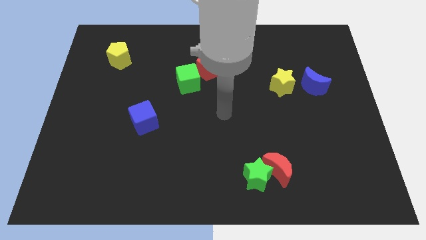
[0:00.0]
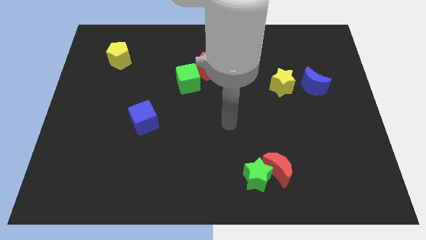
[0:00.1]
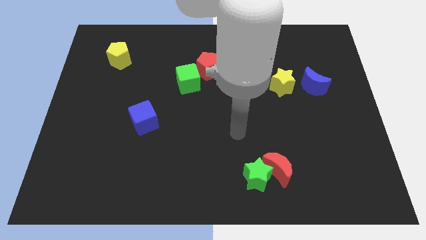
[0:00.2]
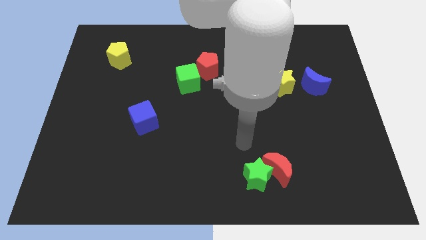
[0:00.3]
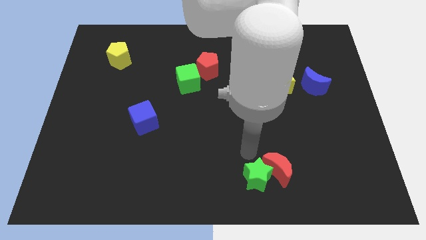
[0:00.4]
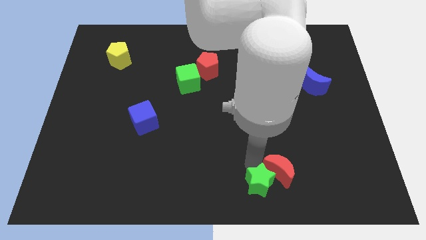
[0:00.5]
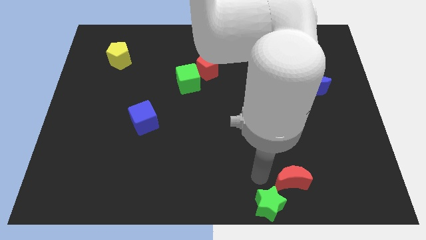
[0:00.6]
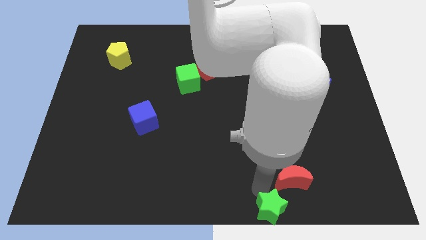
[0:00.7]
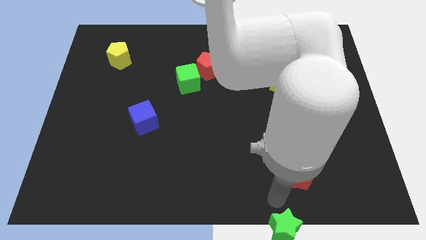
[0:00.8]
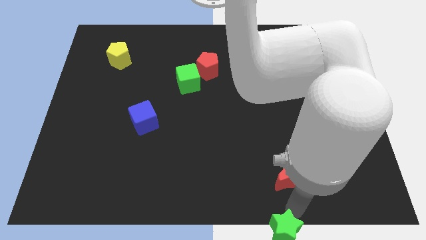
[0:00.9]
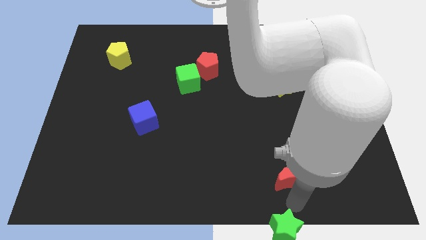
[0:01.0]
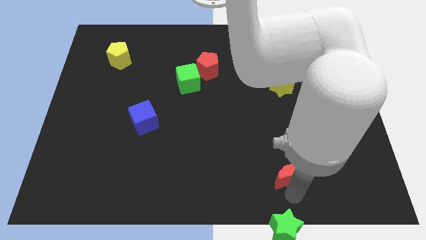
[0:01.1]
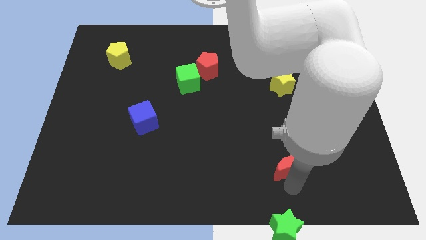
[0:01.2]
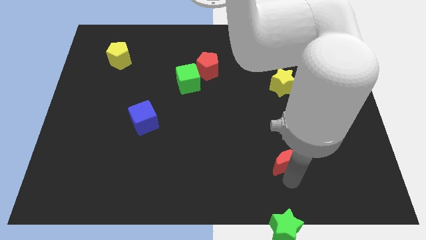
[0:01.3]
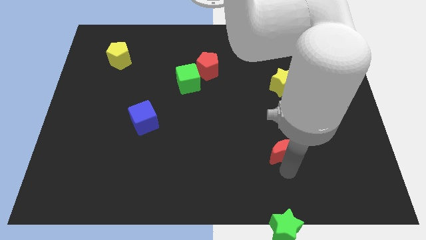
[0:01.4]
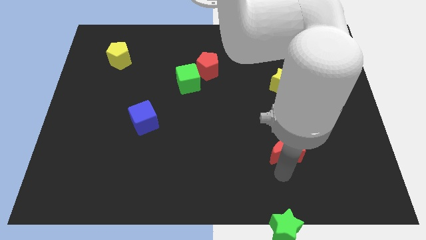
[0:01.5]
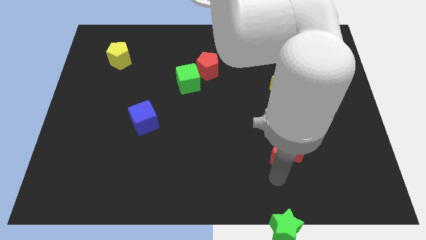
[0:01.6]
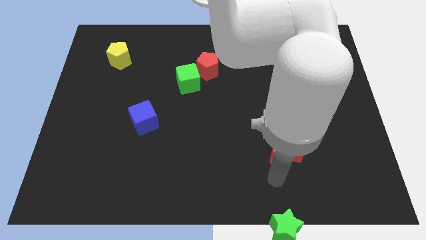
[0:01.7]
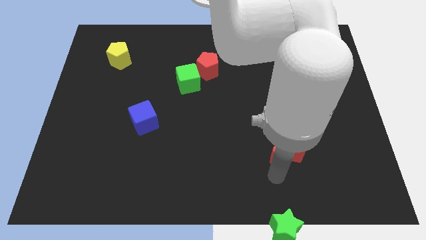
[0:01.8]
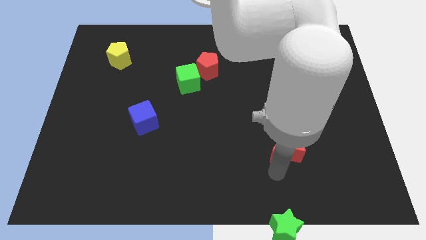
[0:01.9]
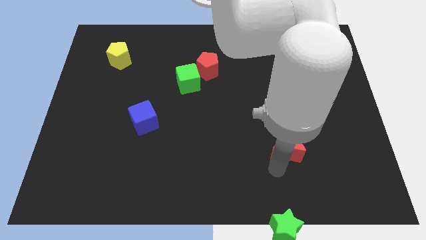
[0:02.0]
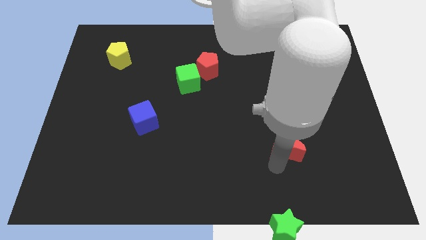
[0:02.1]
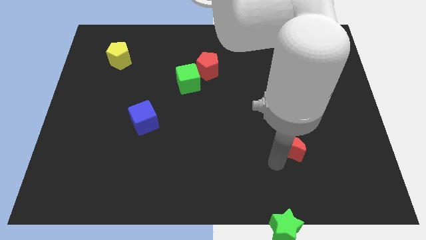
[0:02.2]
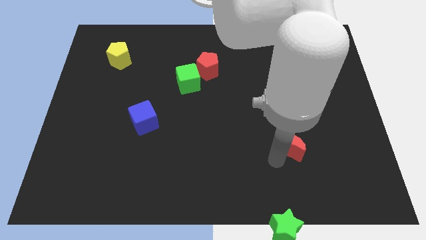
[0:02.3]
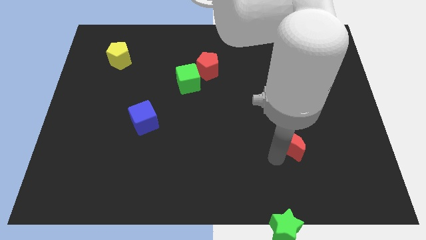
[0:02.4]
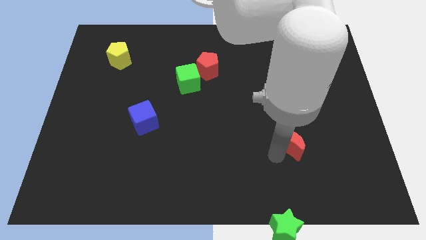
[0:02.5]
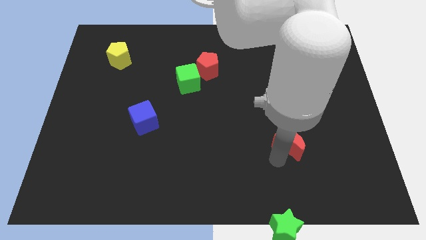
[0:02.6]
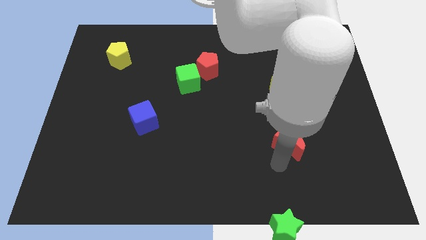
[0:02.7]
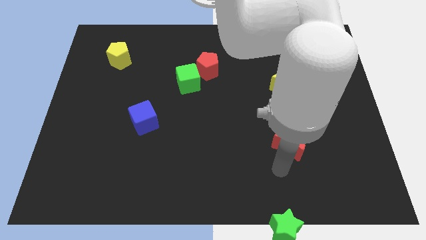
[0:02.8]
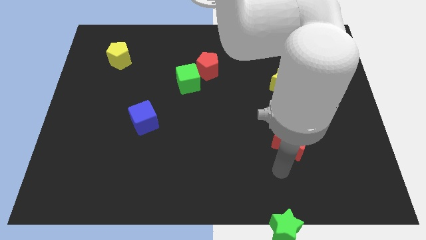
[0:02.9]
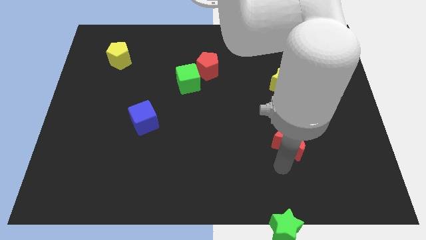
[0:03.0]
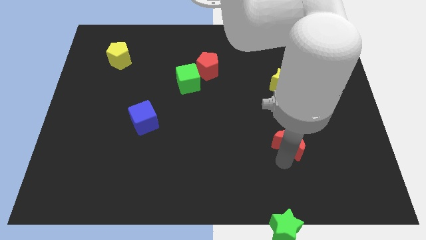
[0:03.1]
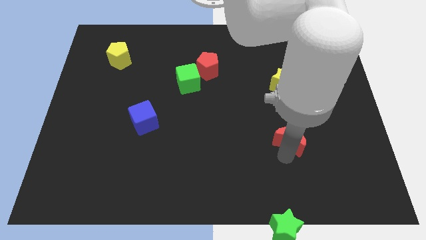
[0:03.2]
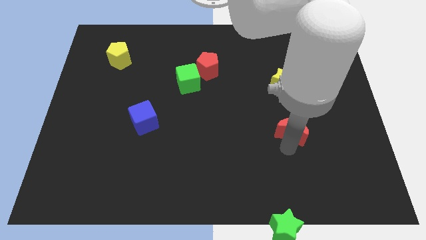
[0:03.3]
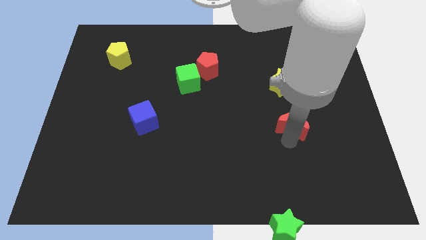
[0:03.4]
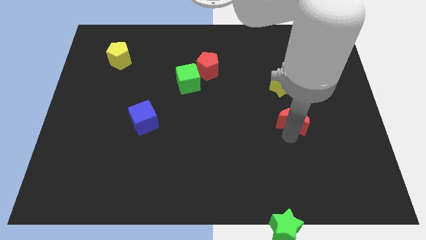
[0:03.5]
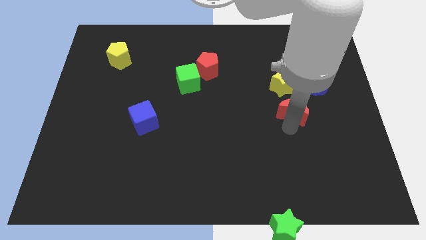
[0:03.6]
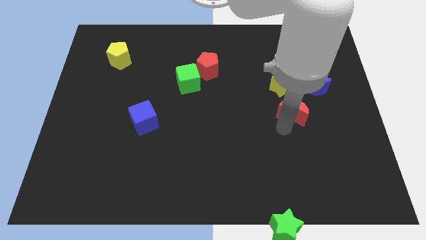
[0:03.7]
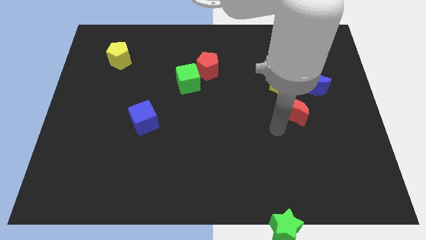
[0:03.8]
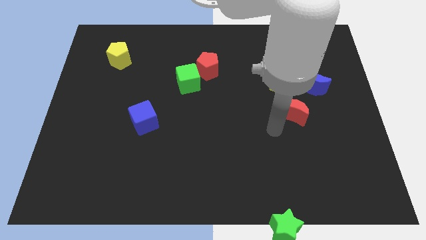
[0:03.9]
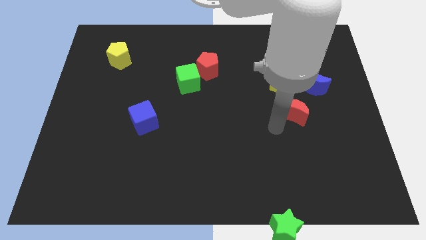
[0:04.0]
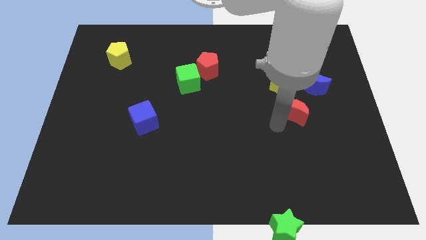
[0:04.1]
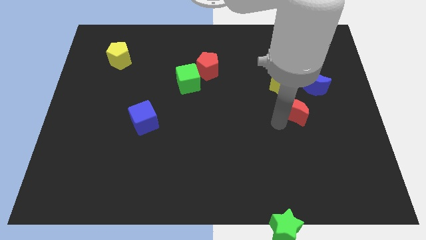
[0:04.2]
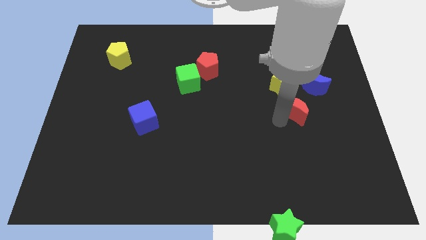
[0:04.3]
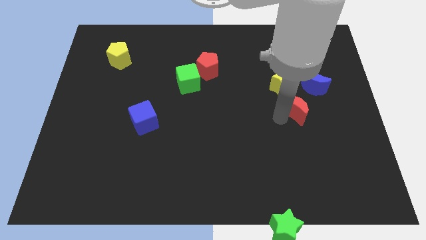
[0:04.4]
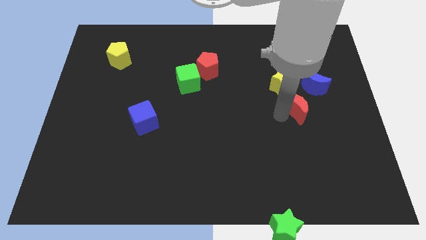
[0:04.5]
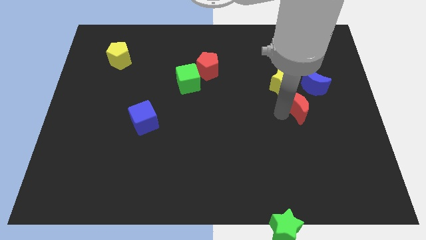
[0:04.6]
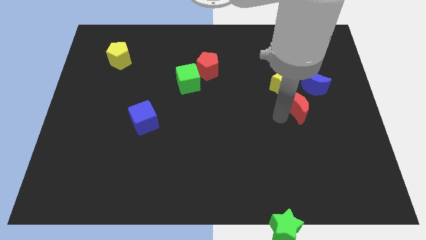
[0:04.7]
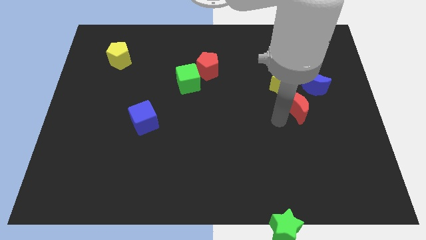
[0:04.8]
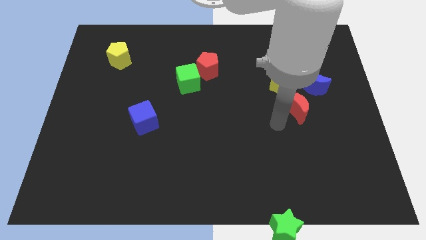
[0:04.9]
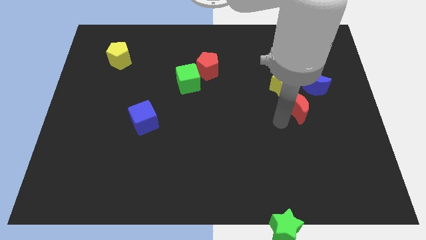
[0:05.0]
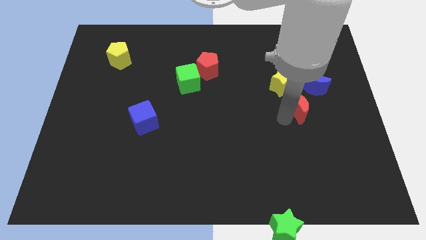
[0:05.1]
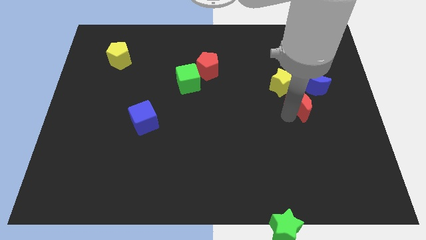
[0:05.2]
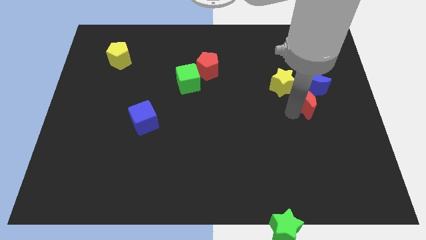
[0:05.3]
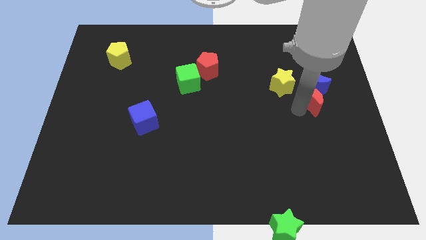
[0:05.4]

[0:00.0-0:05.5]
put the red moon towards the blue moon

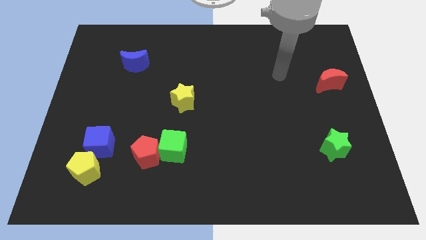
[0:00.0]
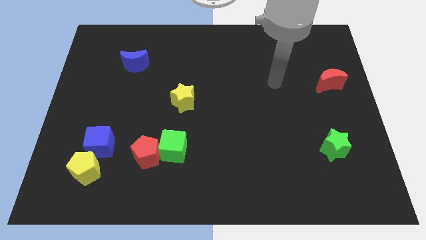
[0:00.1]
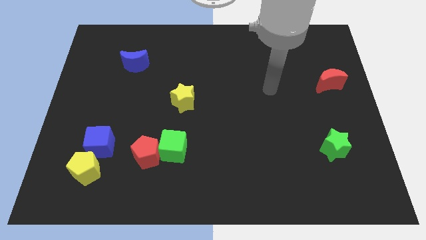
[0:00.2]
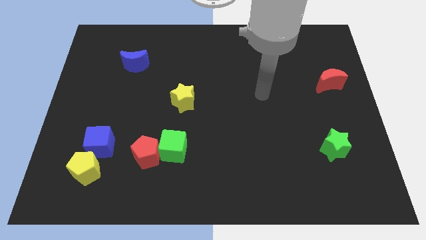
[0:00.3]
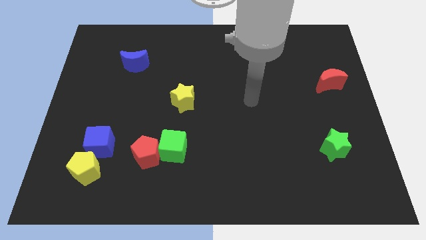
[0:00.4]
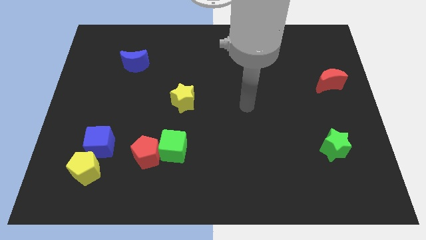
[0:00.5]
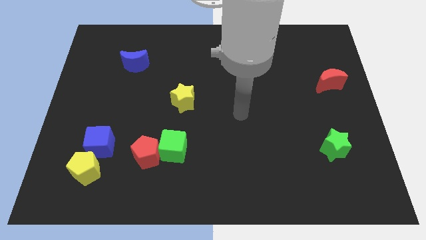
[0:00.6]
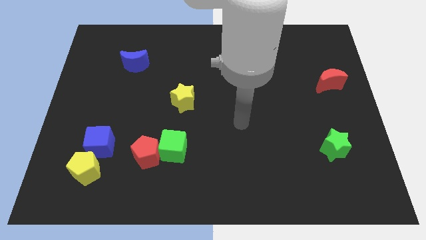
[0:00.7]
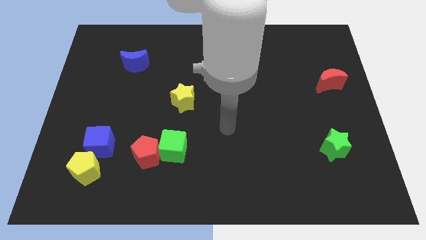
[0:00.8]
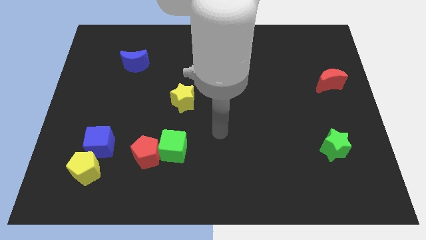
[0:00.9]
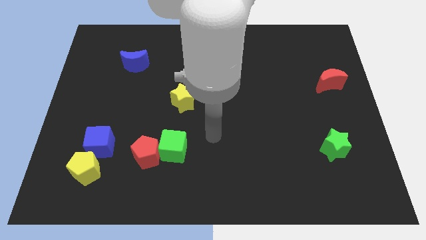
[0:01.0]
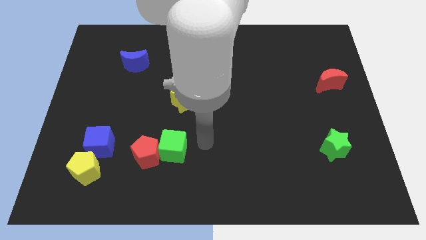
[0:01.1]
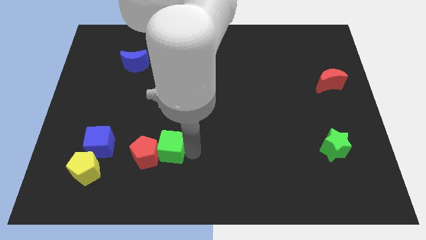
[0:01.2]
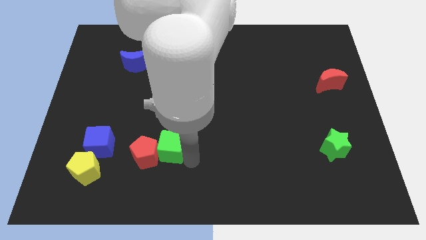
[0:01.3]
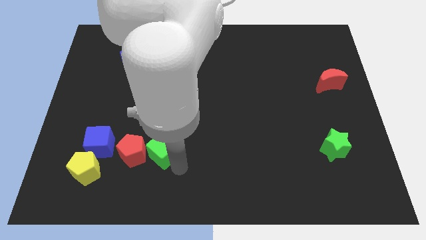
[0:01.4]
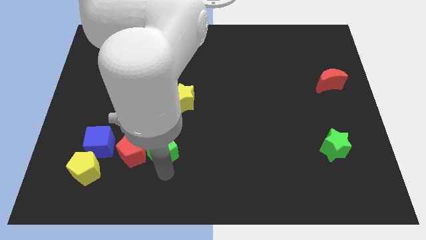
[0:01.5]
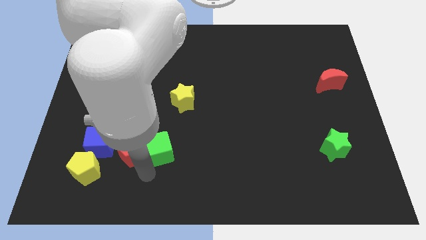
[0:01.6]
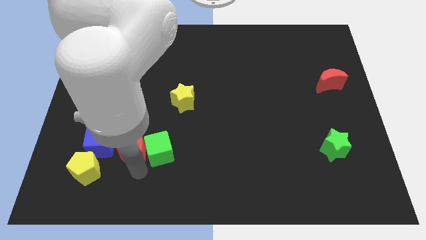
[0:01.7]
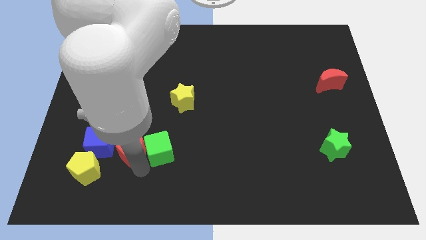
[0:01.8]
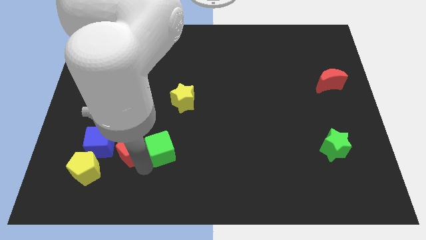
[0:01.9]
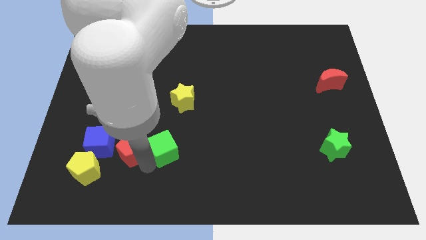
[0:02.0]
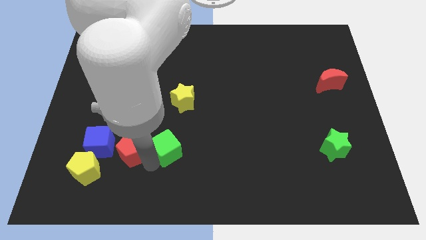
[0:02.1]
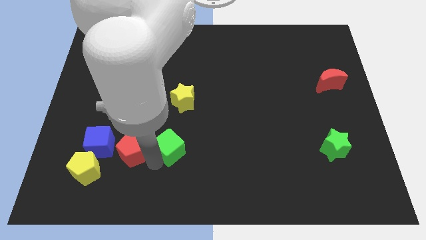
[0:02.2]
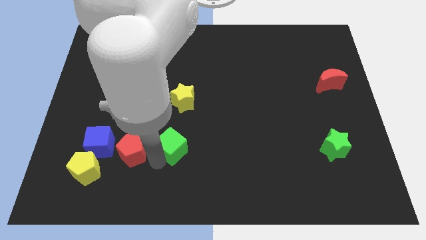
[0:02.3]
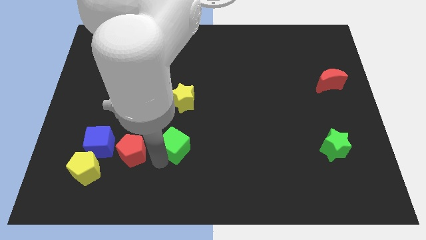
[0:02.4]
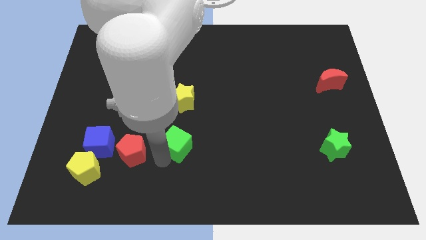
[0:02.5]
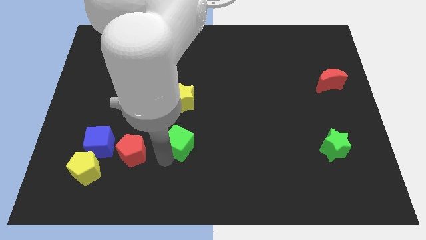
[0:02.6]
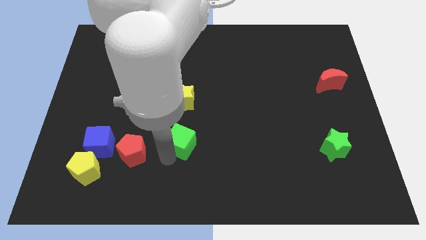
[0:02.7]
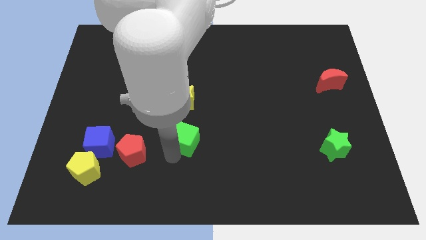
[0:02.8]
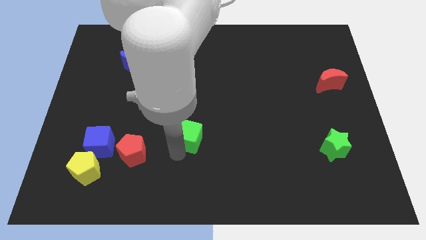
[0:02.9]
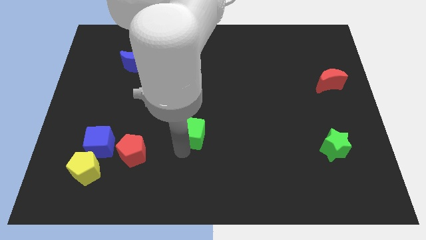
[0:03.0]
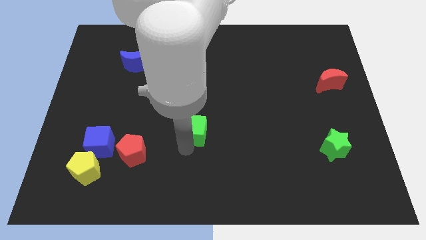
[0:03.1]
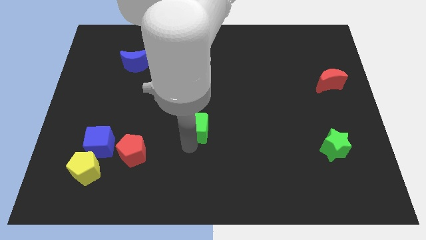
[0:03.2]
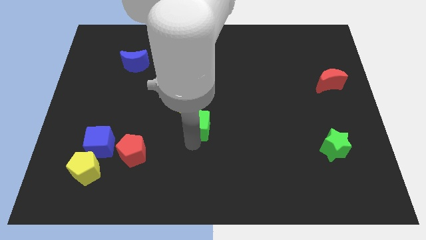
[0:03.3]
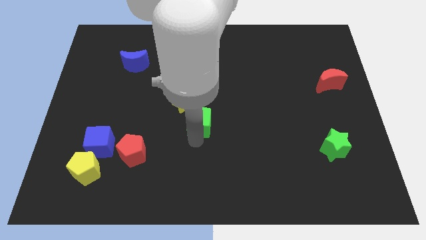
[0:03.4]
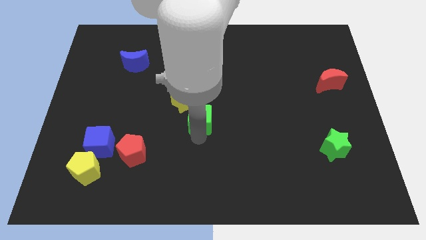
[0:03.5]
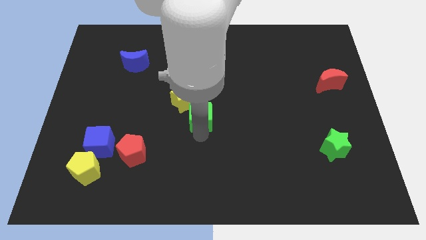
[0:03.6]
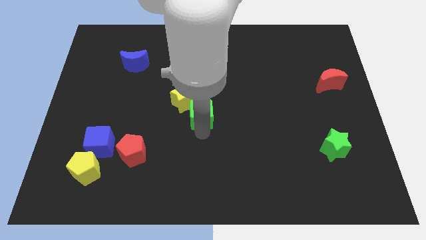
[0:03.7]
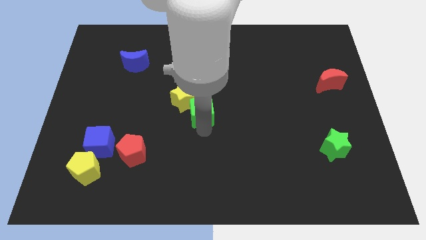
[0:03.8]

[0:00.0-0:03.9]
push the green cube towards the yellow star
